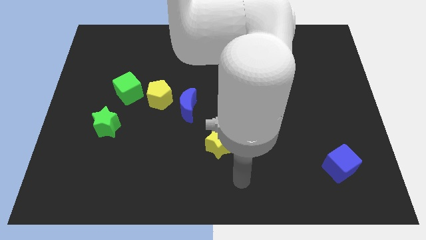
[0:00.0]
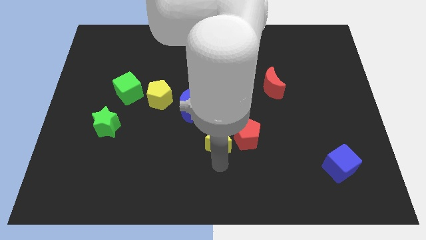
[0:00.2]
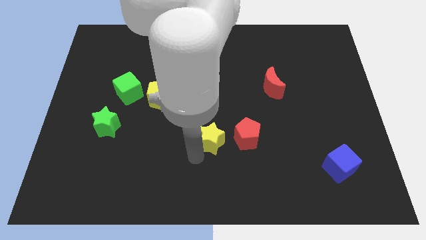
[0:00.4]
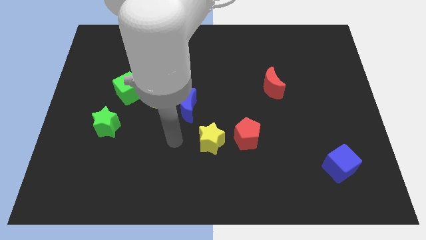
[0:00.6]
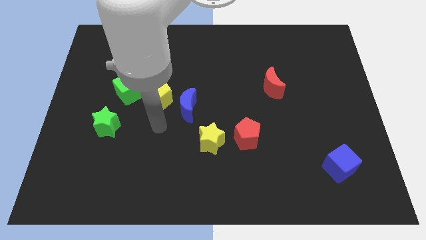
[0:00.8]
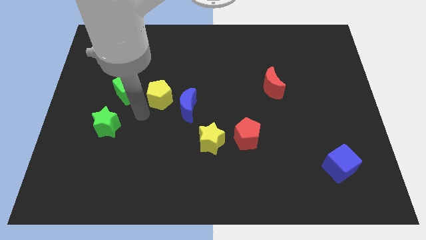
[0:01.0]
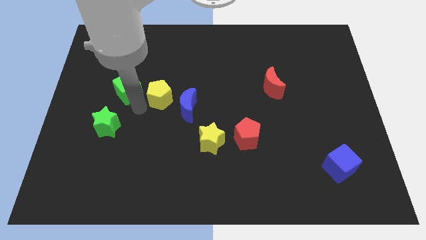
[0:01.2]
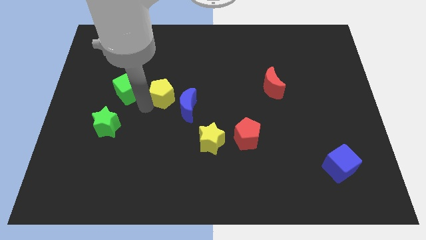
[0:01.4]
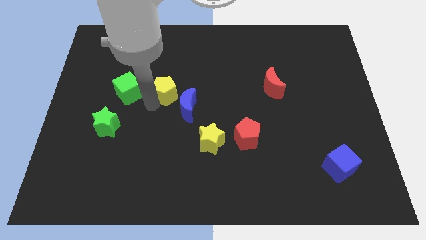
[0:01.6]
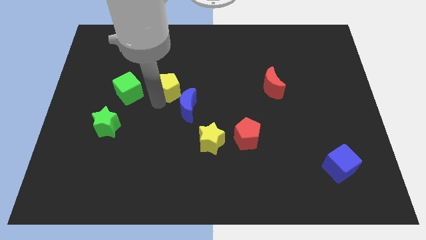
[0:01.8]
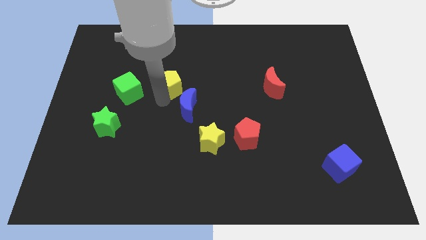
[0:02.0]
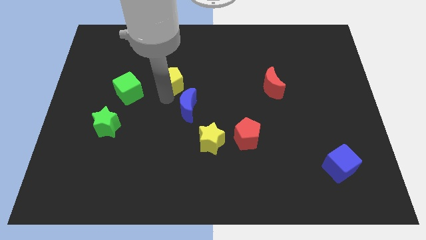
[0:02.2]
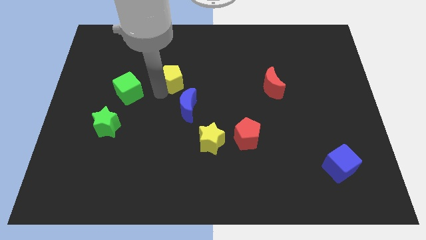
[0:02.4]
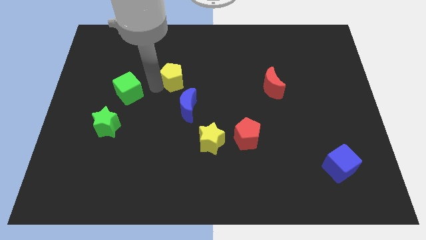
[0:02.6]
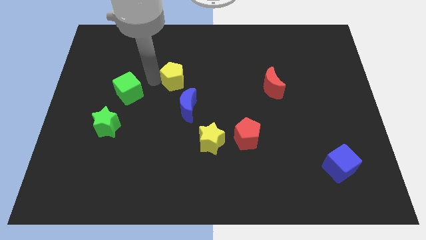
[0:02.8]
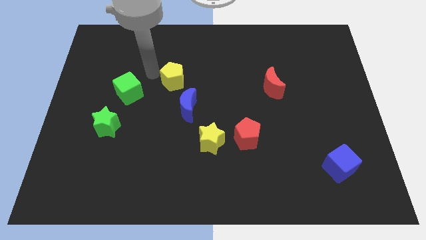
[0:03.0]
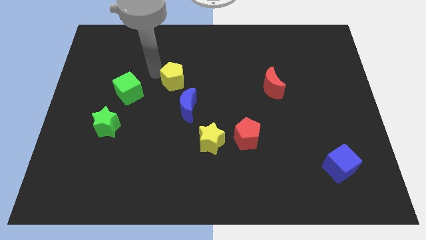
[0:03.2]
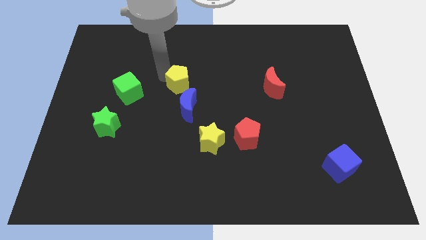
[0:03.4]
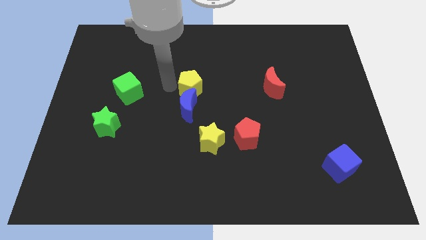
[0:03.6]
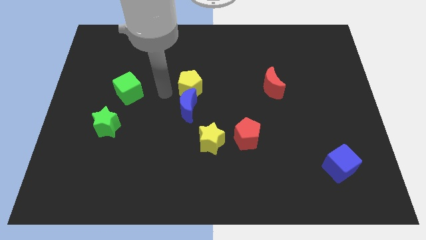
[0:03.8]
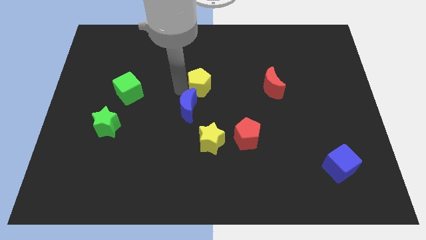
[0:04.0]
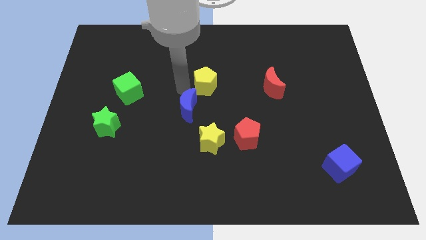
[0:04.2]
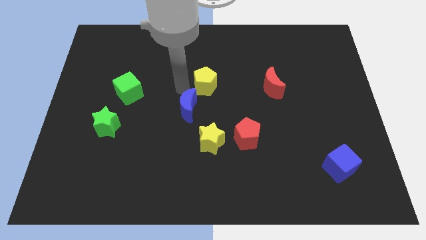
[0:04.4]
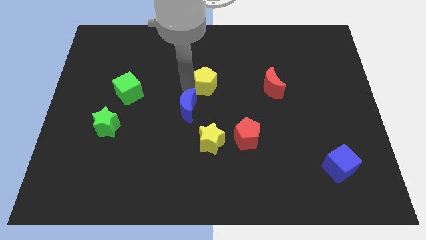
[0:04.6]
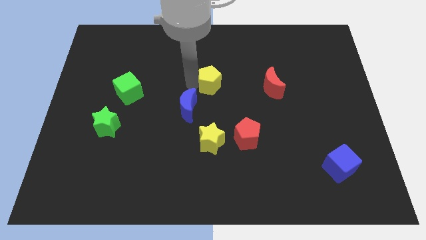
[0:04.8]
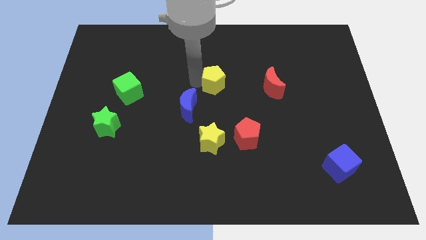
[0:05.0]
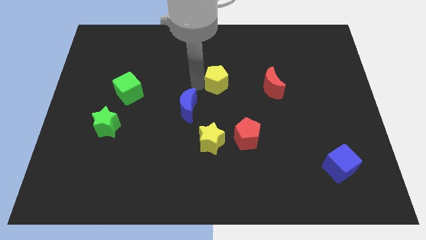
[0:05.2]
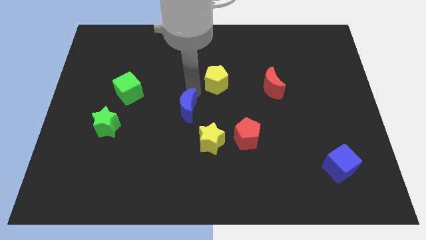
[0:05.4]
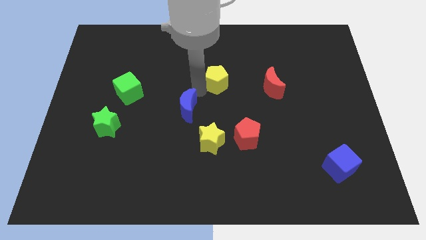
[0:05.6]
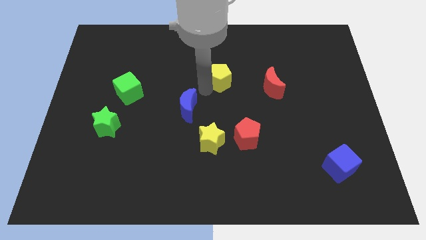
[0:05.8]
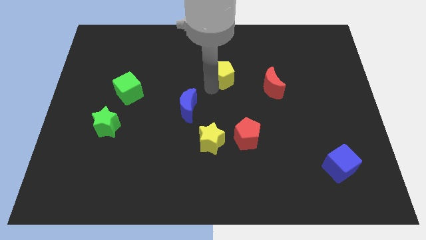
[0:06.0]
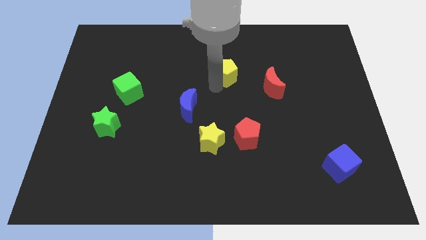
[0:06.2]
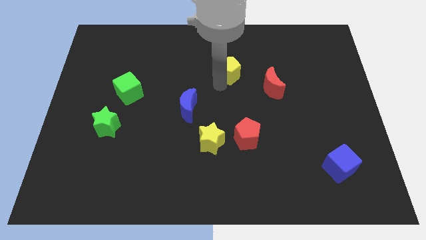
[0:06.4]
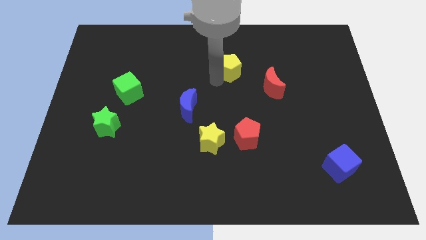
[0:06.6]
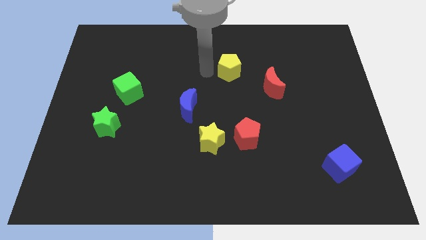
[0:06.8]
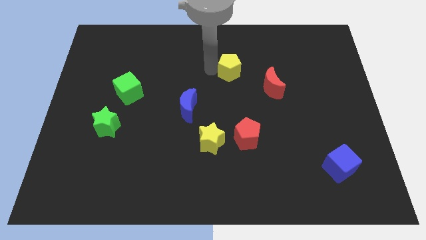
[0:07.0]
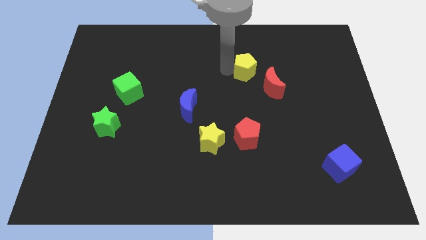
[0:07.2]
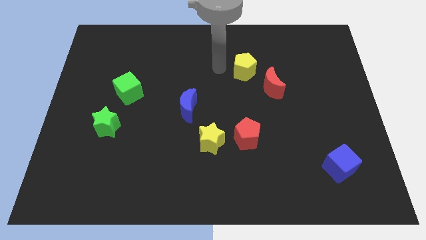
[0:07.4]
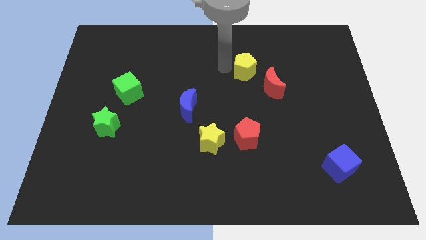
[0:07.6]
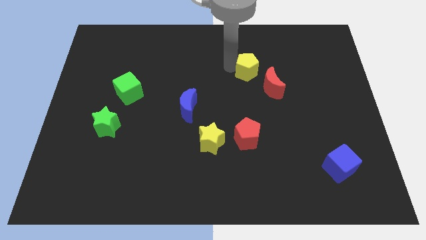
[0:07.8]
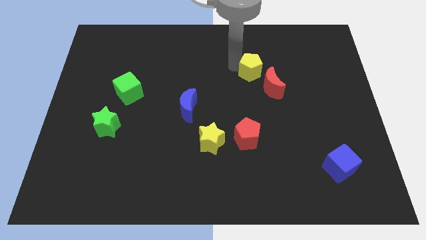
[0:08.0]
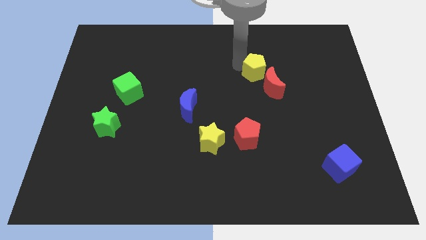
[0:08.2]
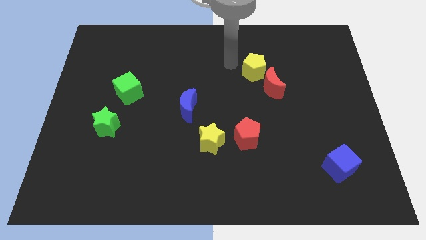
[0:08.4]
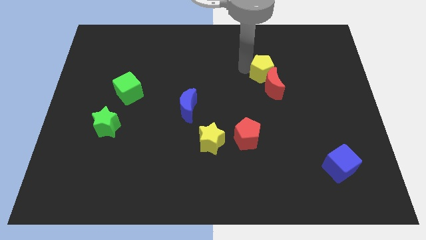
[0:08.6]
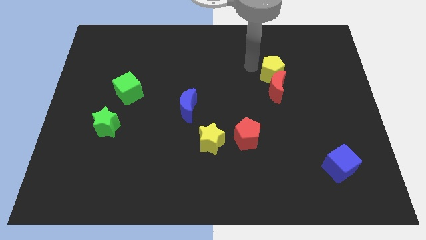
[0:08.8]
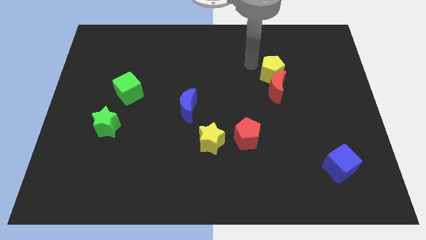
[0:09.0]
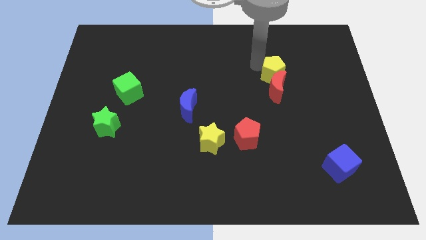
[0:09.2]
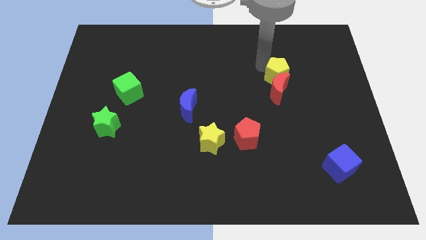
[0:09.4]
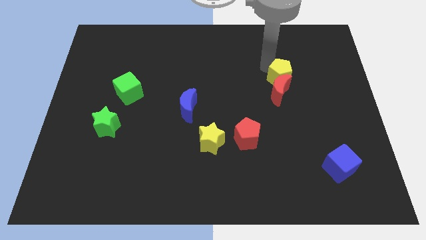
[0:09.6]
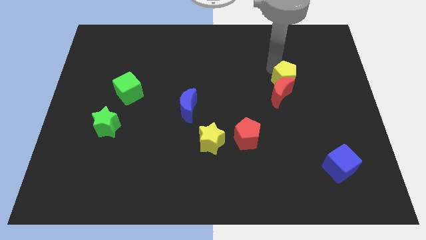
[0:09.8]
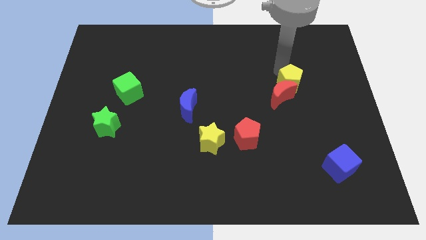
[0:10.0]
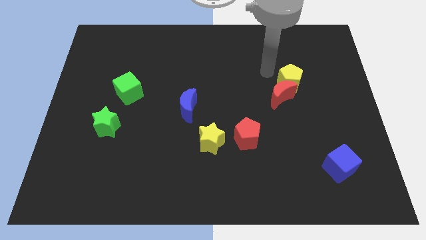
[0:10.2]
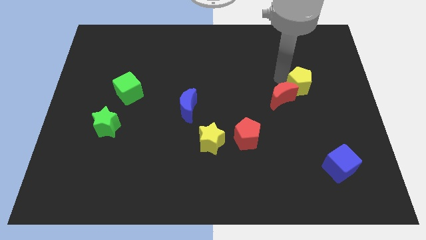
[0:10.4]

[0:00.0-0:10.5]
push the yellow pentagon to the right of the red moon

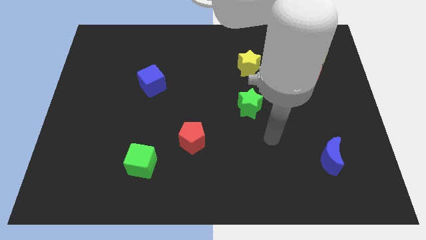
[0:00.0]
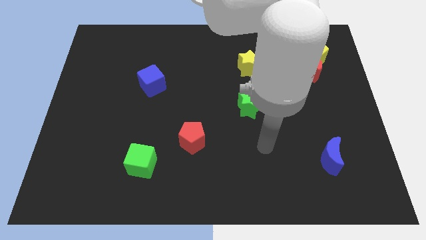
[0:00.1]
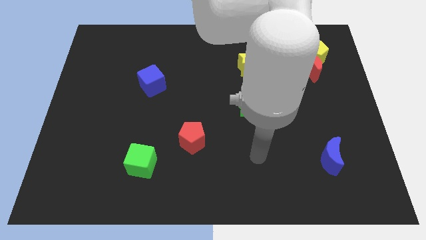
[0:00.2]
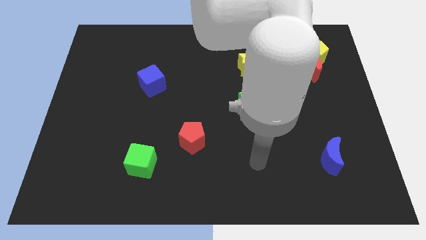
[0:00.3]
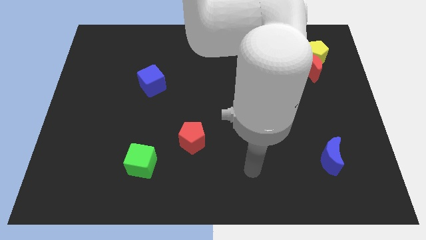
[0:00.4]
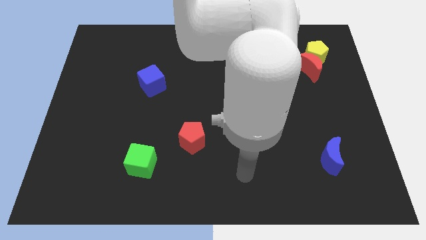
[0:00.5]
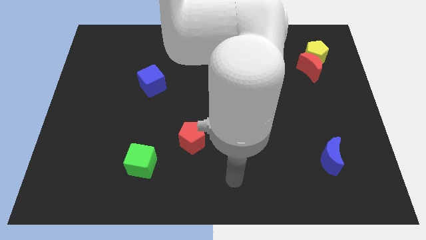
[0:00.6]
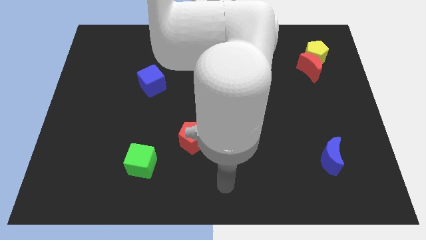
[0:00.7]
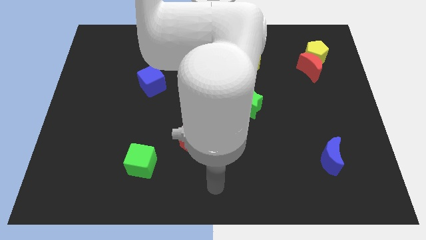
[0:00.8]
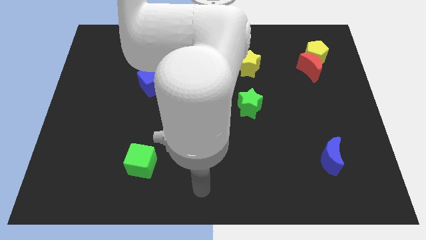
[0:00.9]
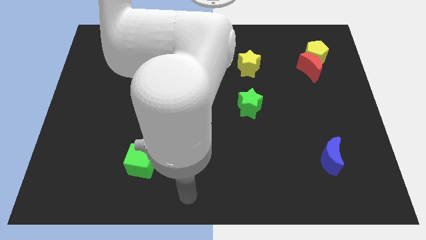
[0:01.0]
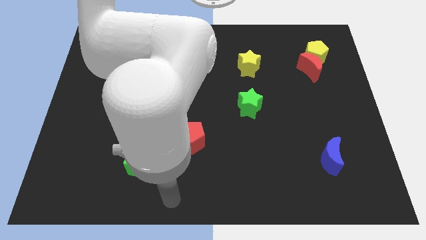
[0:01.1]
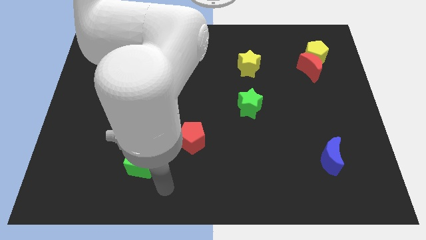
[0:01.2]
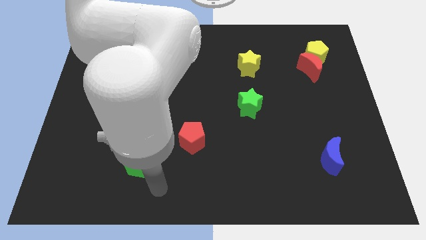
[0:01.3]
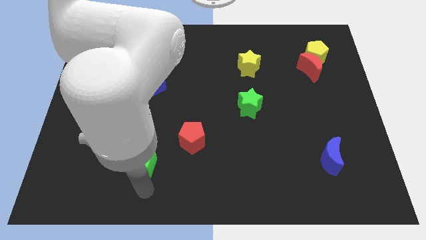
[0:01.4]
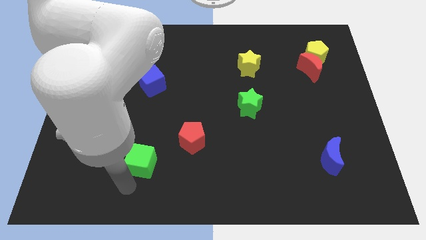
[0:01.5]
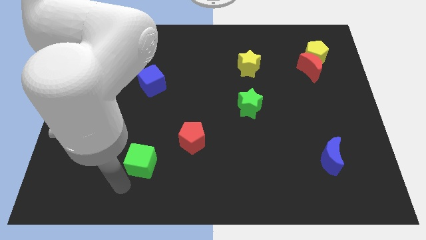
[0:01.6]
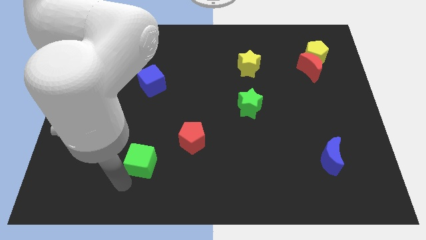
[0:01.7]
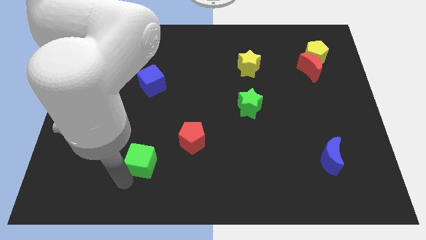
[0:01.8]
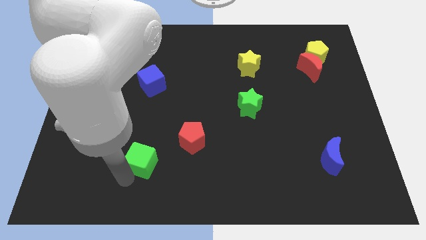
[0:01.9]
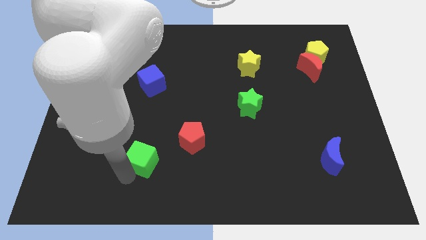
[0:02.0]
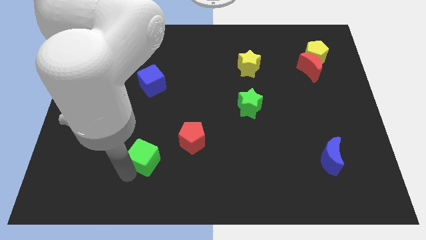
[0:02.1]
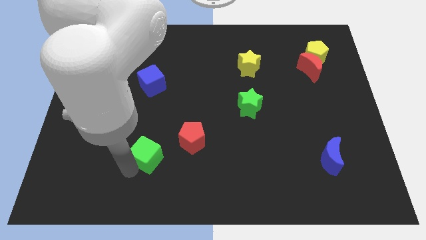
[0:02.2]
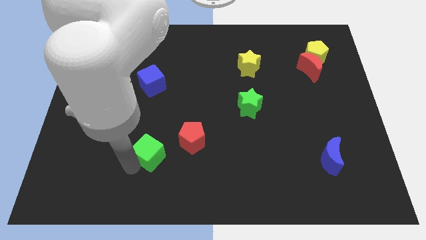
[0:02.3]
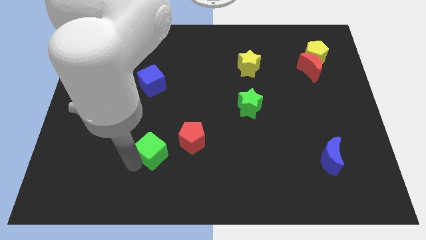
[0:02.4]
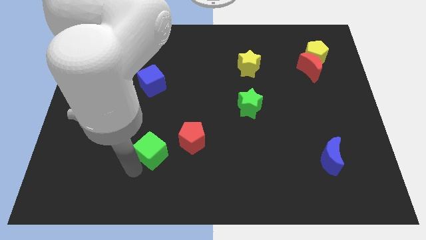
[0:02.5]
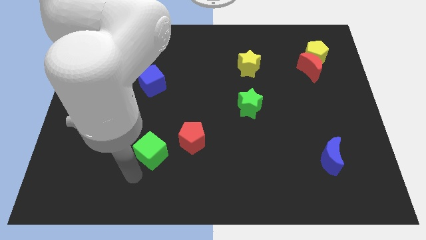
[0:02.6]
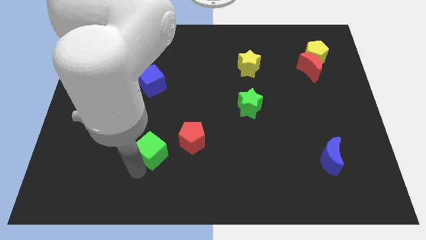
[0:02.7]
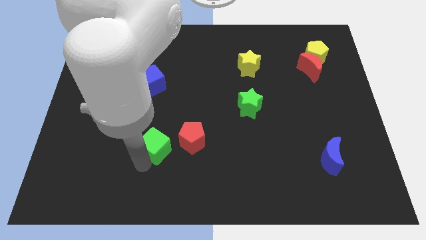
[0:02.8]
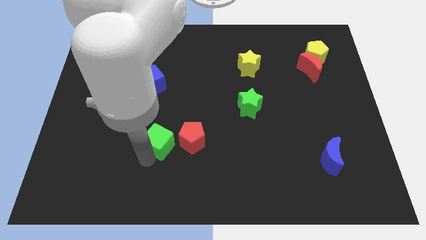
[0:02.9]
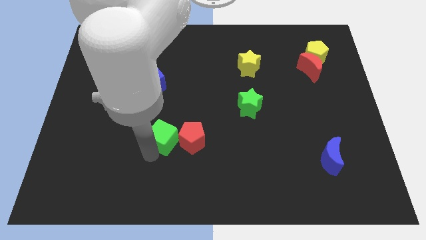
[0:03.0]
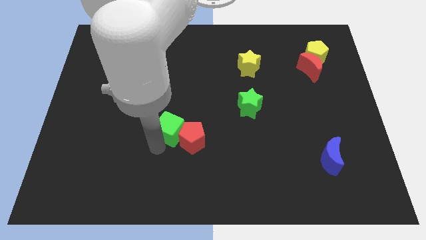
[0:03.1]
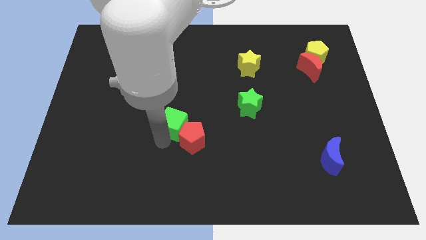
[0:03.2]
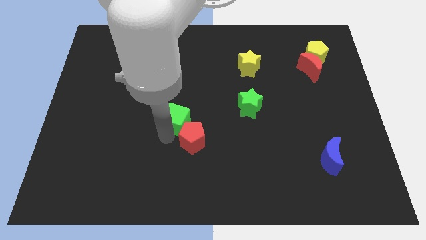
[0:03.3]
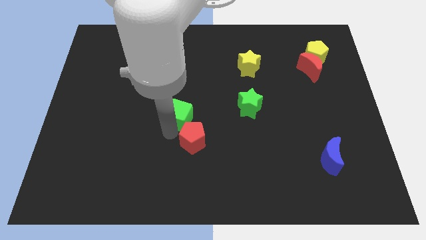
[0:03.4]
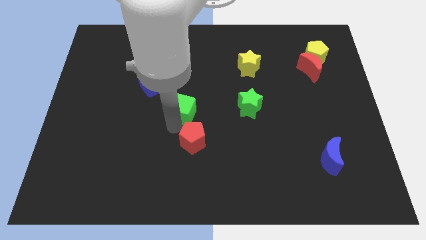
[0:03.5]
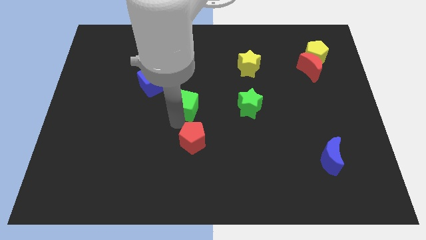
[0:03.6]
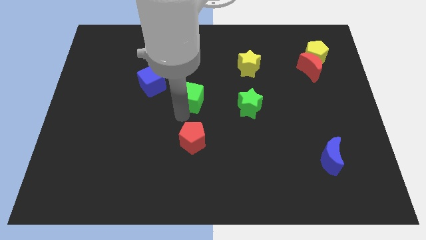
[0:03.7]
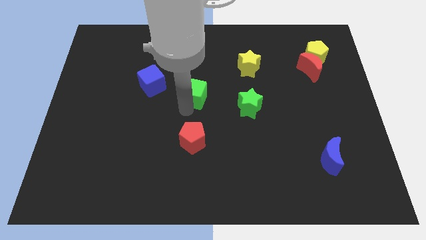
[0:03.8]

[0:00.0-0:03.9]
move the green cube right of the blue cube
